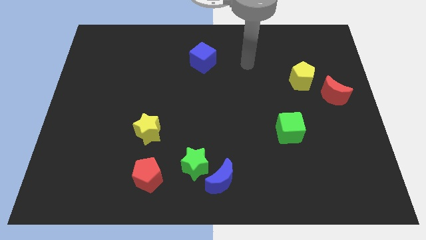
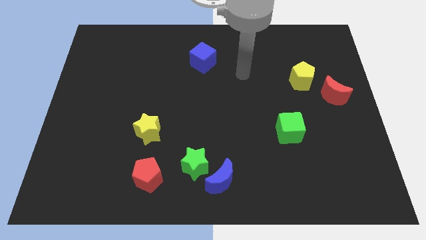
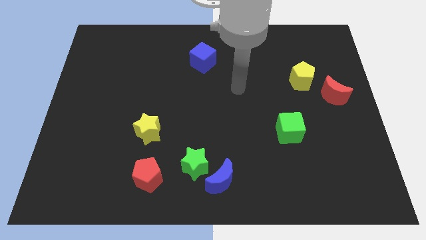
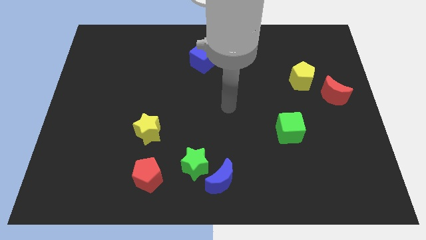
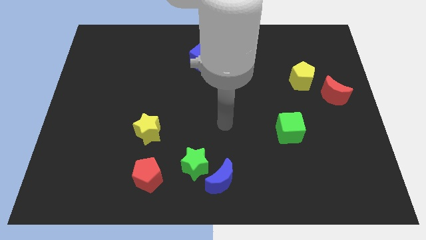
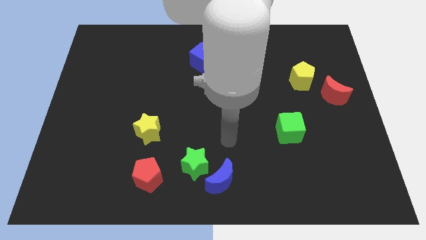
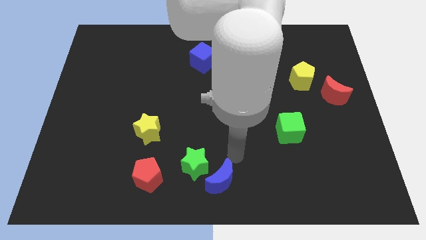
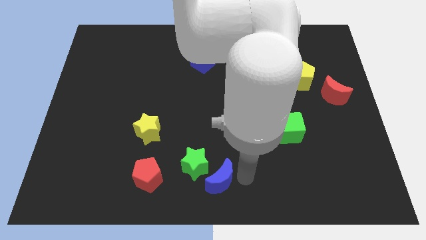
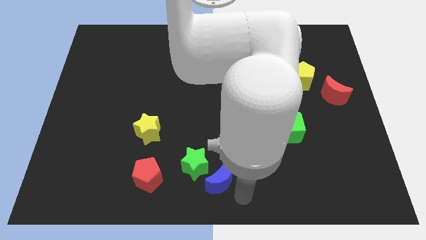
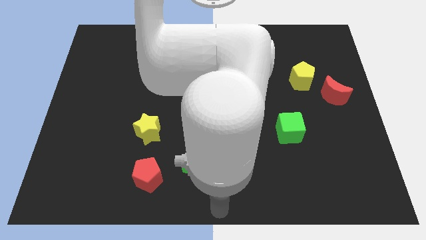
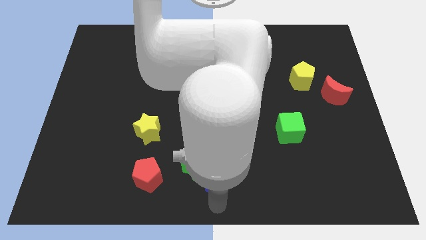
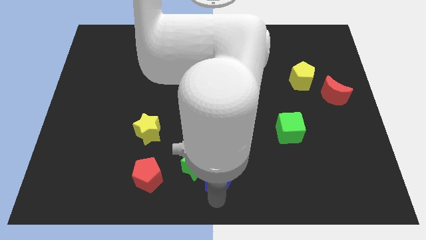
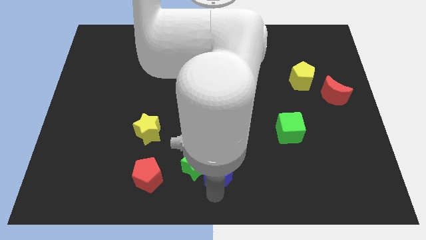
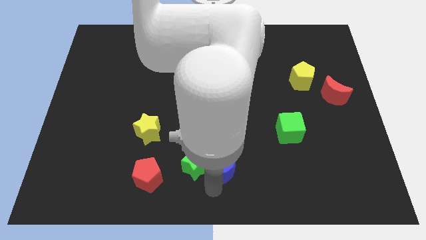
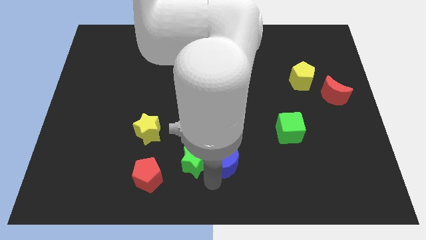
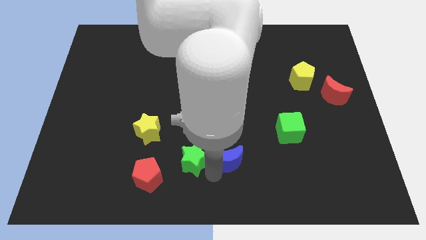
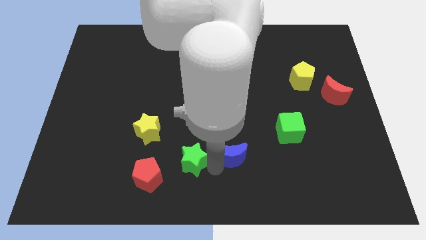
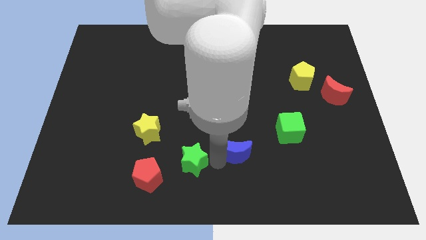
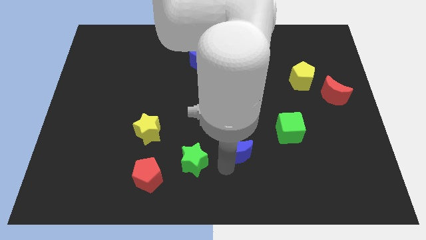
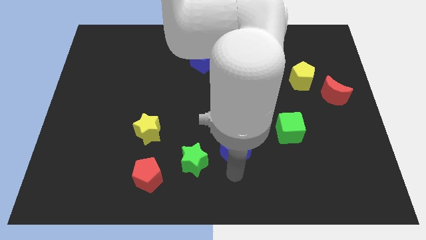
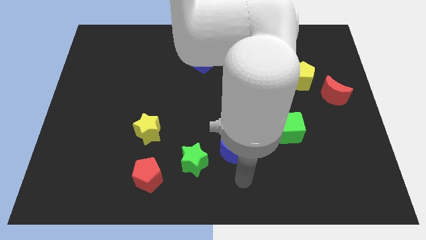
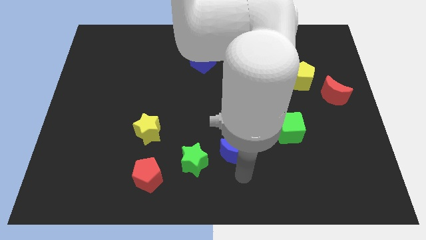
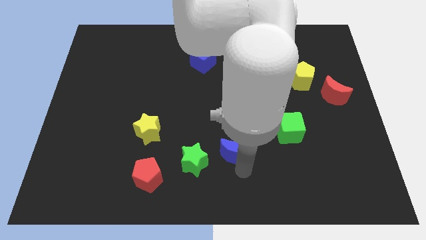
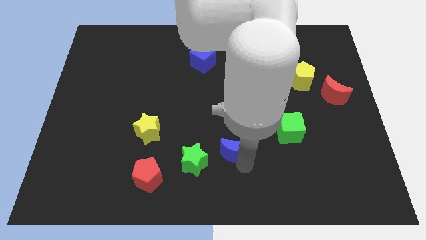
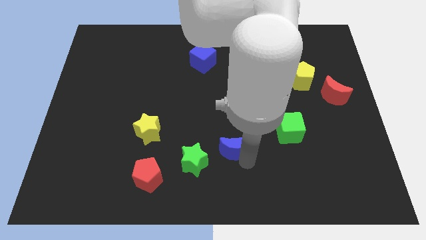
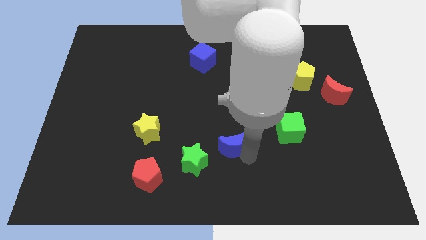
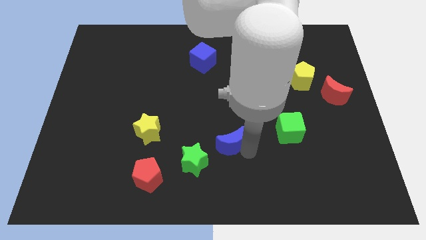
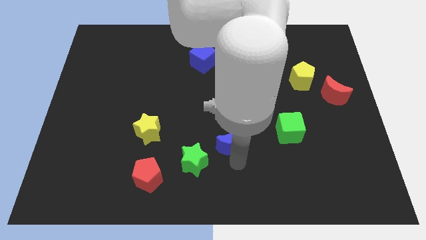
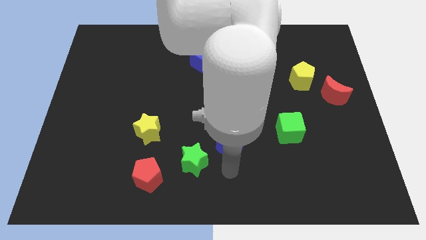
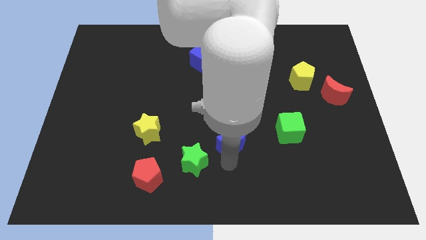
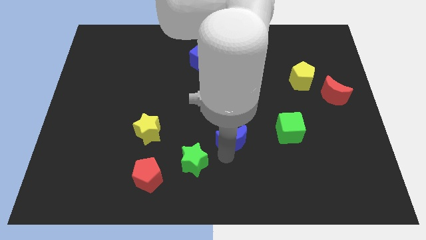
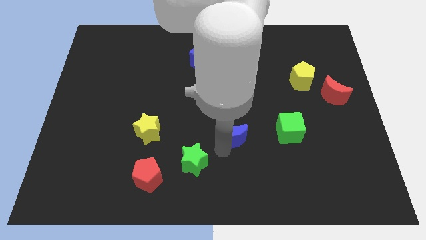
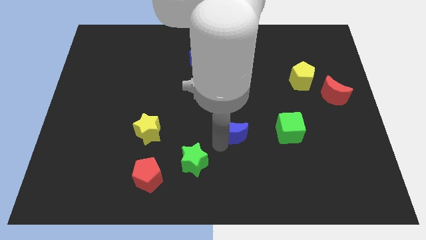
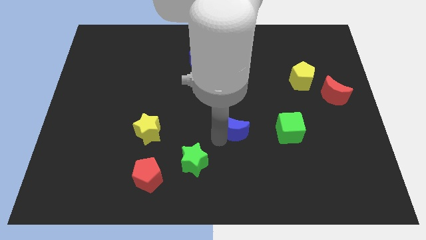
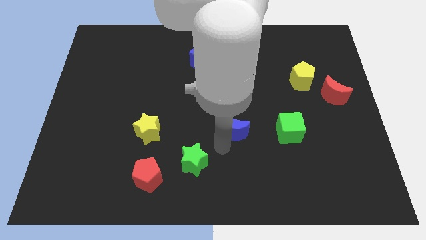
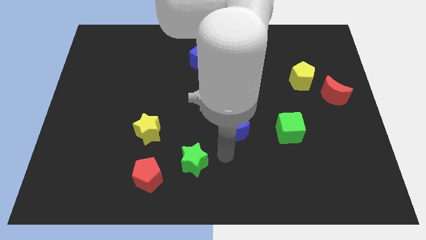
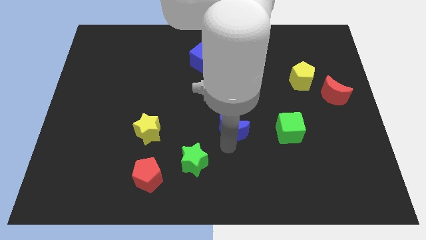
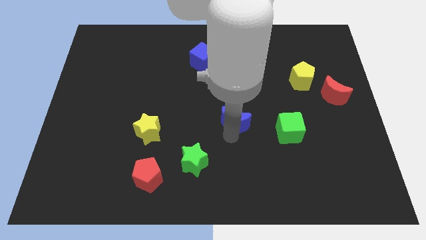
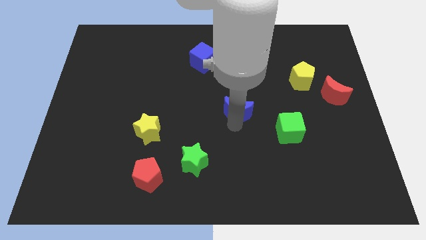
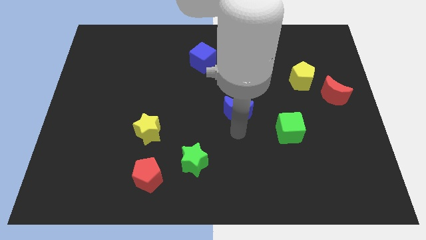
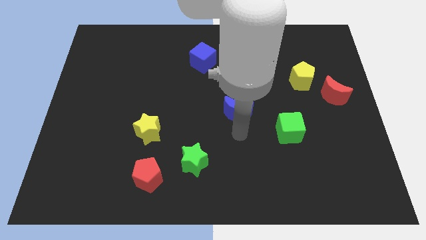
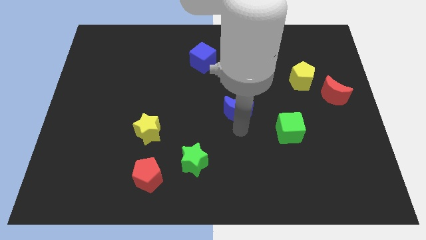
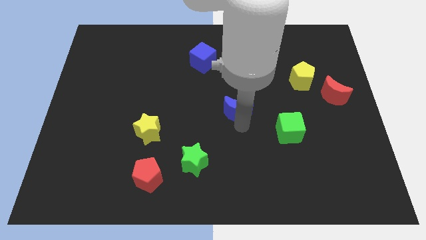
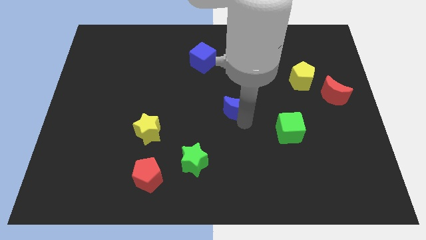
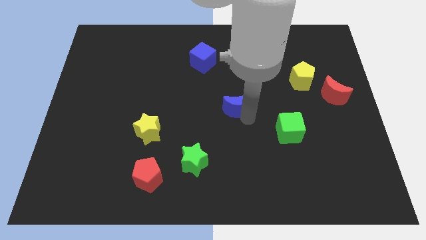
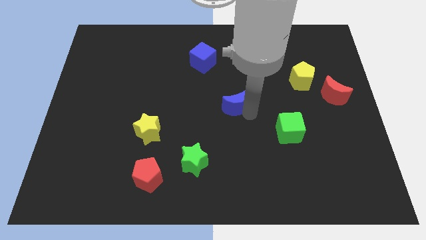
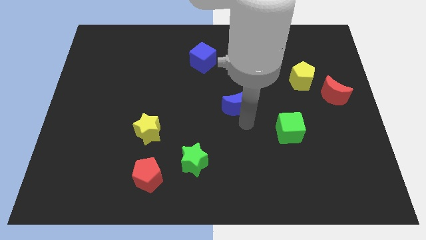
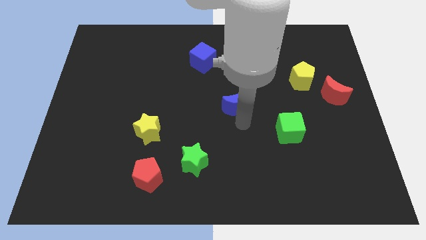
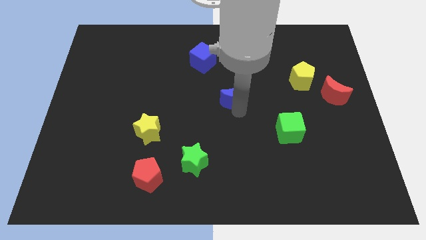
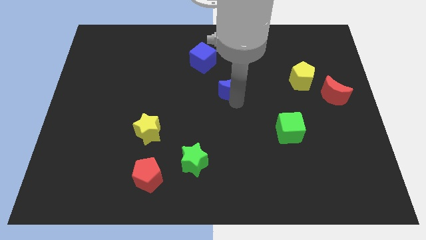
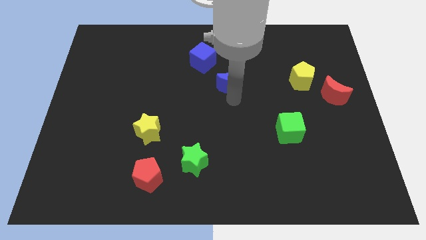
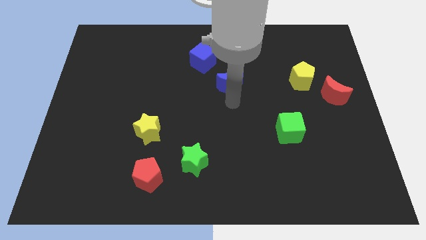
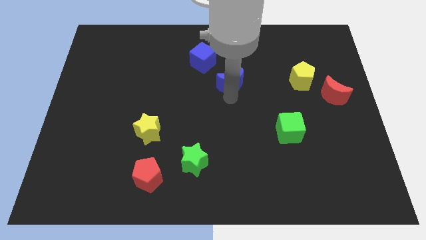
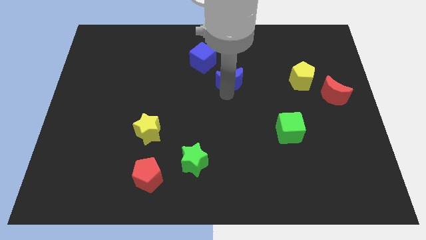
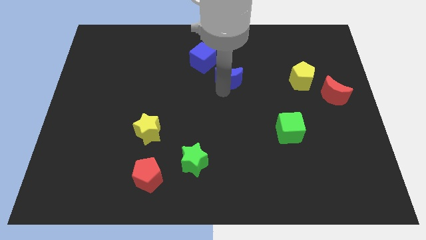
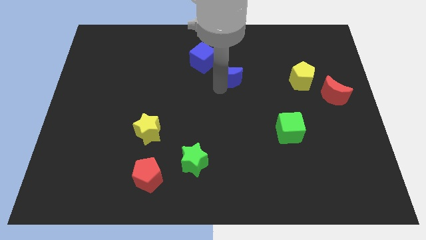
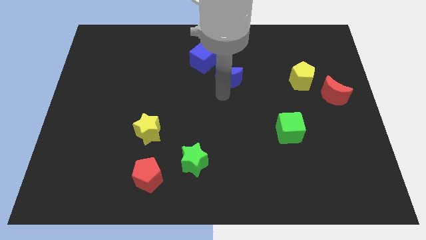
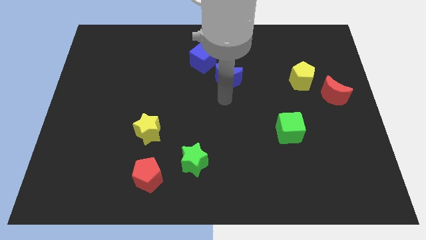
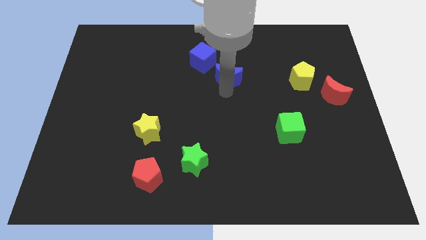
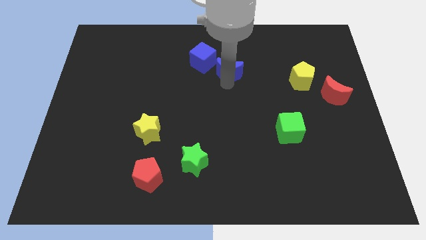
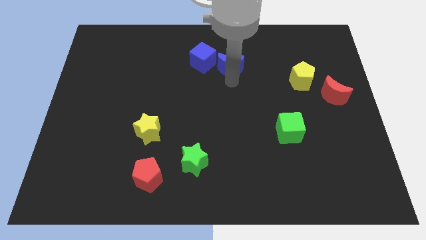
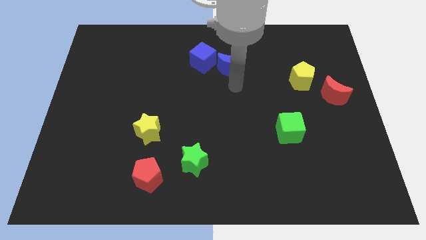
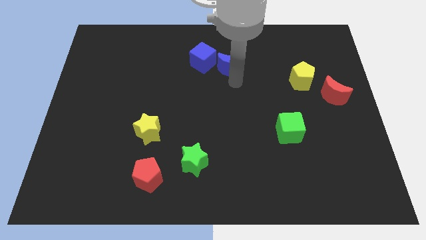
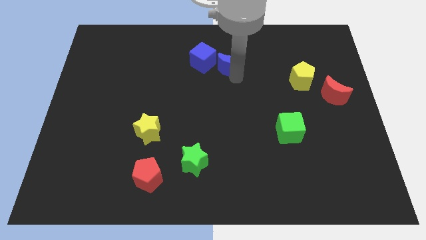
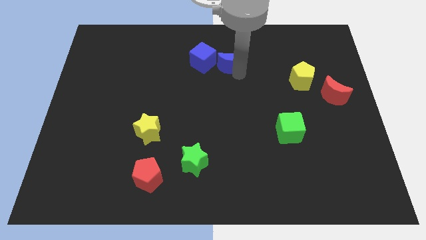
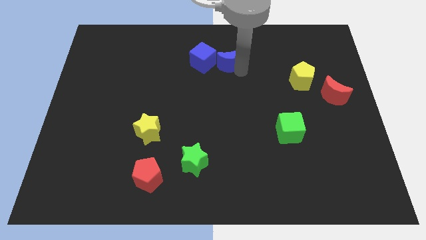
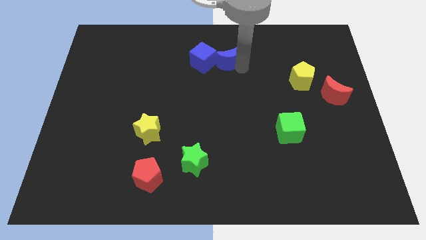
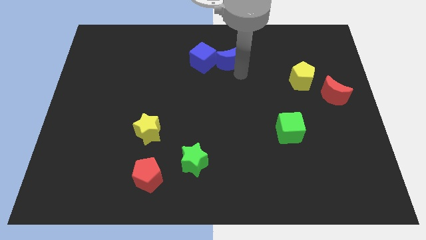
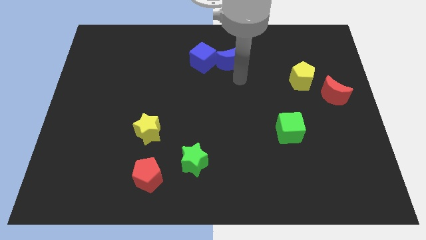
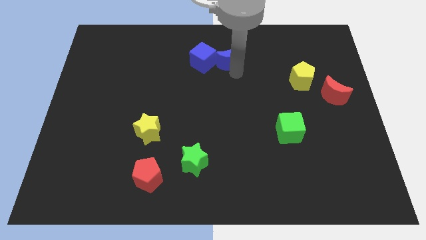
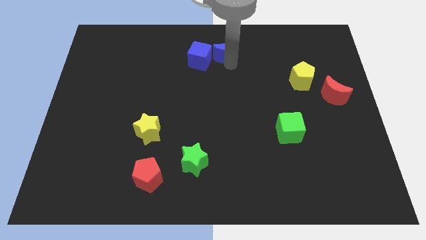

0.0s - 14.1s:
put the blue moon to the top side
